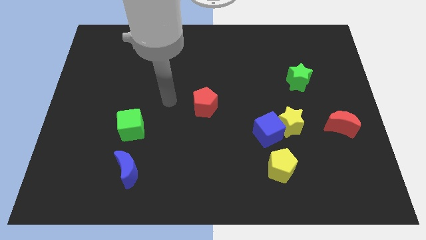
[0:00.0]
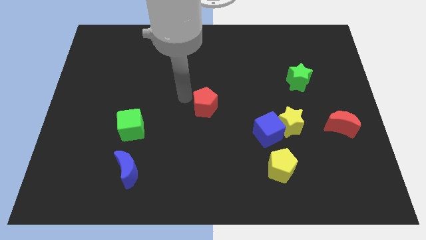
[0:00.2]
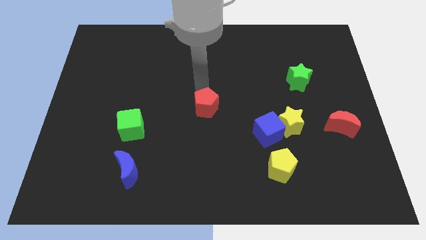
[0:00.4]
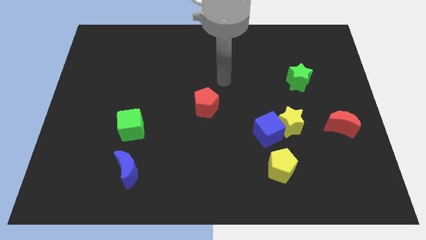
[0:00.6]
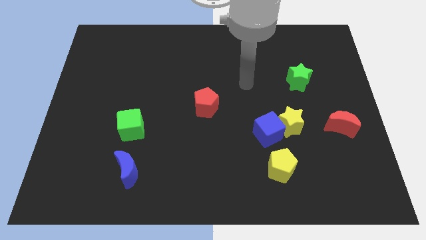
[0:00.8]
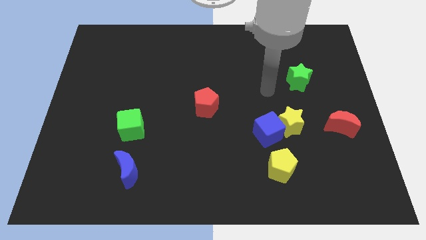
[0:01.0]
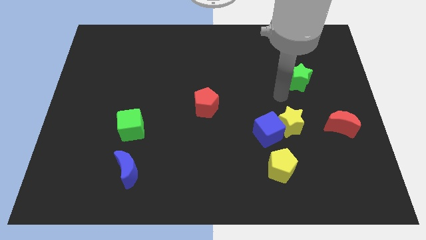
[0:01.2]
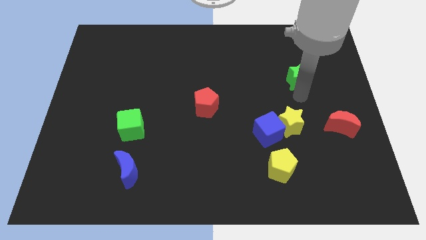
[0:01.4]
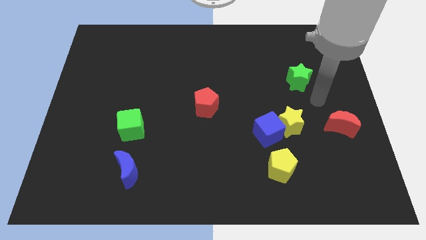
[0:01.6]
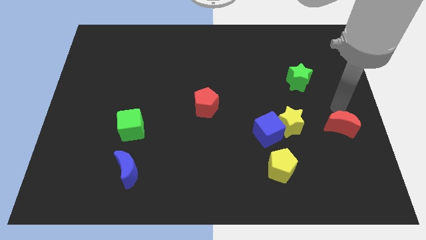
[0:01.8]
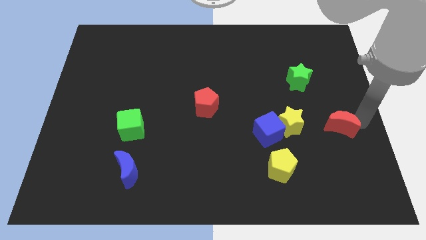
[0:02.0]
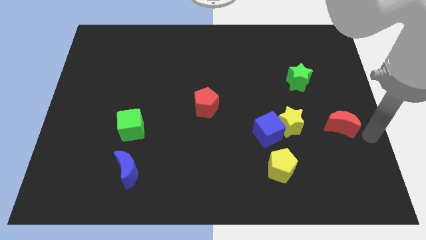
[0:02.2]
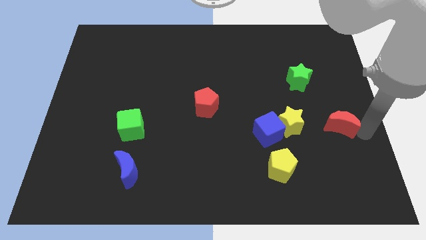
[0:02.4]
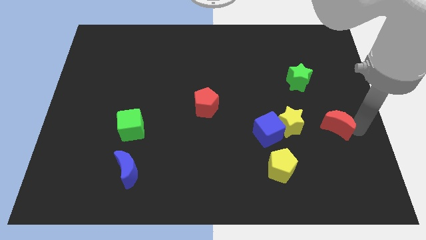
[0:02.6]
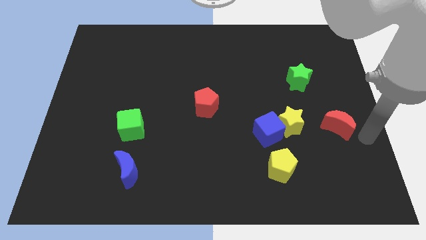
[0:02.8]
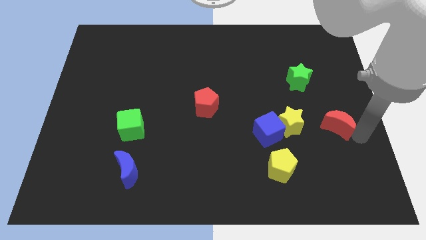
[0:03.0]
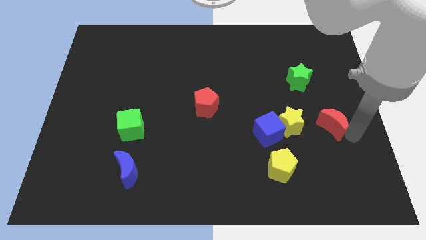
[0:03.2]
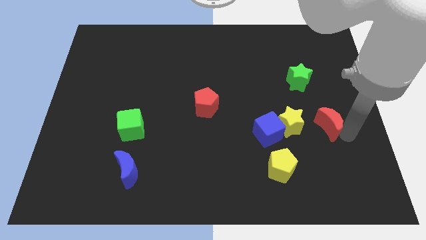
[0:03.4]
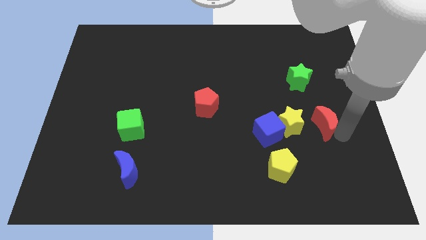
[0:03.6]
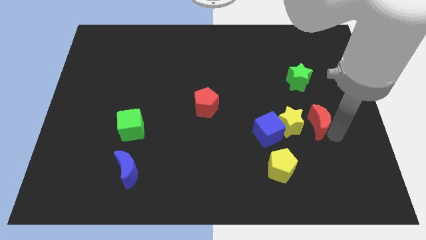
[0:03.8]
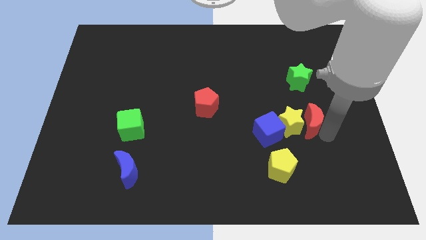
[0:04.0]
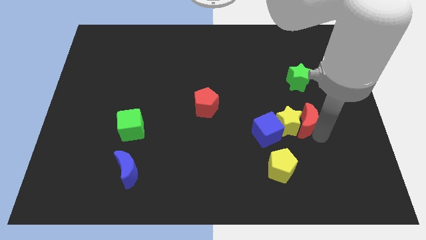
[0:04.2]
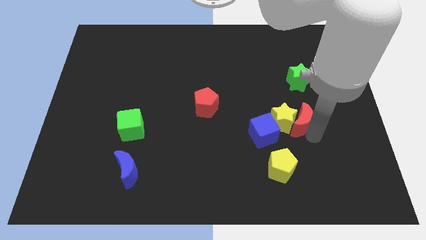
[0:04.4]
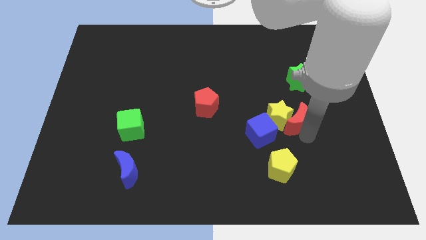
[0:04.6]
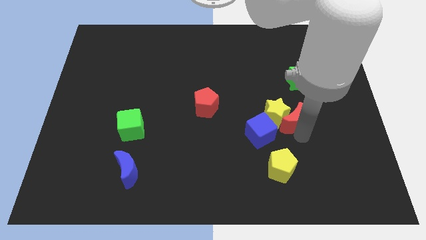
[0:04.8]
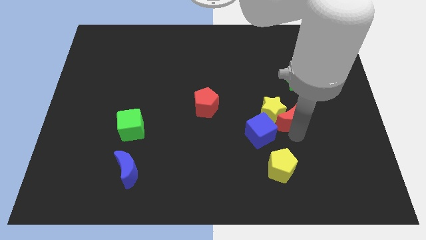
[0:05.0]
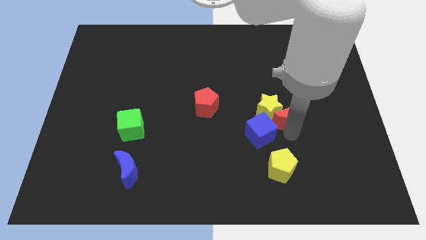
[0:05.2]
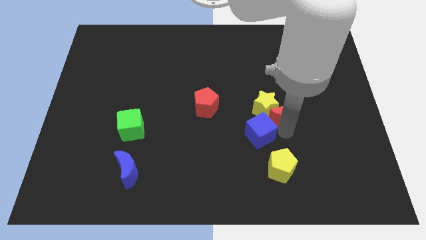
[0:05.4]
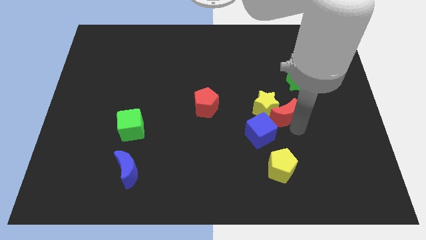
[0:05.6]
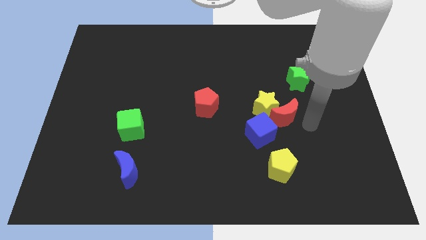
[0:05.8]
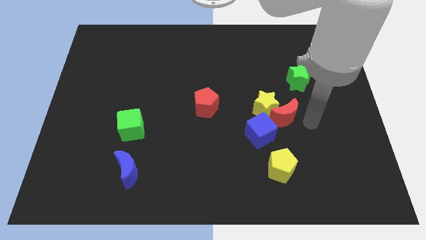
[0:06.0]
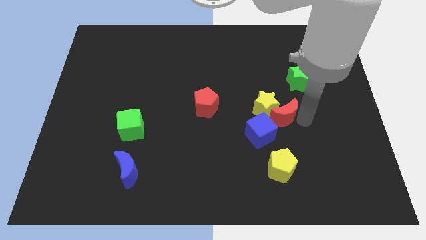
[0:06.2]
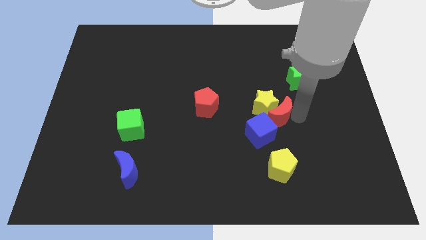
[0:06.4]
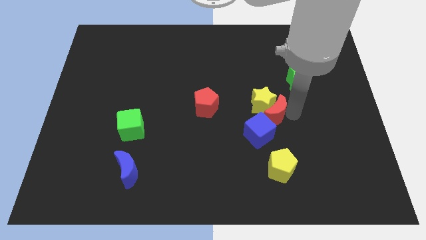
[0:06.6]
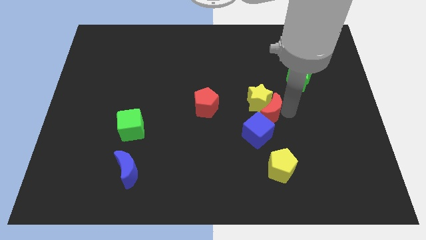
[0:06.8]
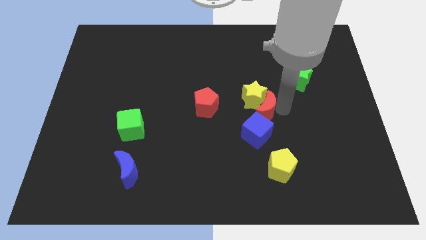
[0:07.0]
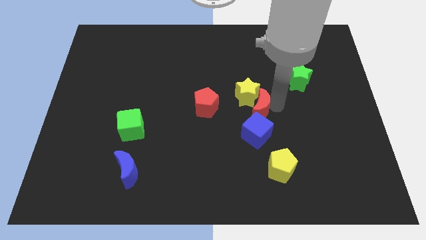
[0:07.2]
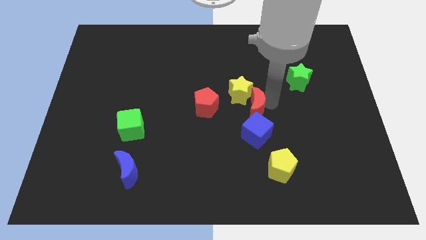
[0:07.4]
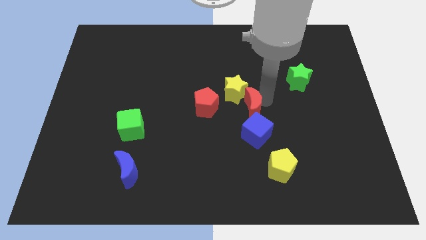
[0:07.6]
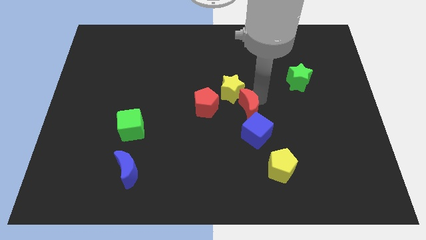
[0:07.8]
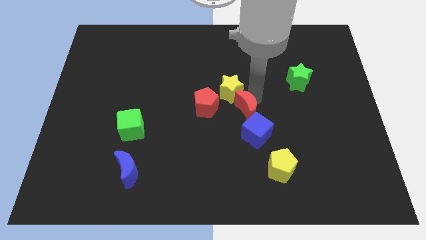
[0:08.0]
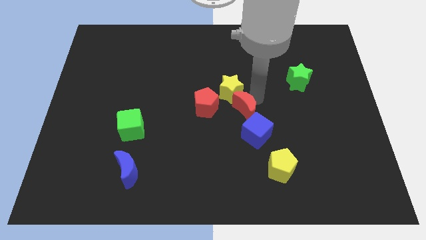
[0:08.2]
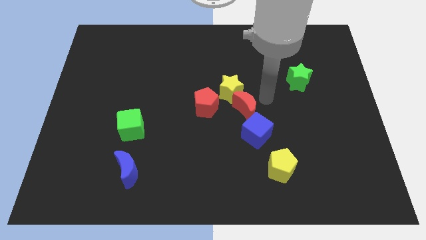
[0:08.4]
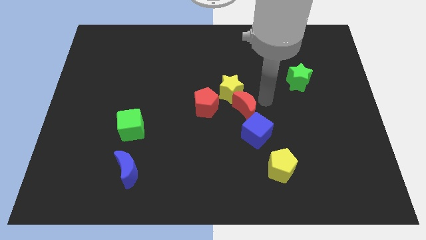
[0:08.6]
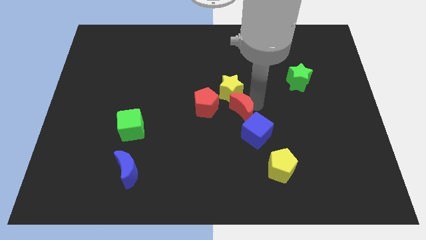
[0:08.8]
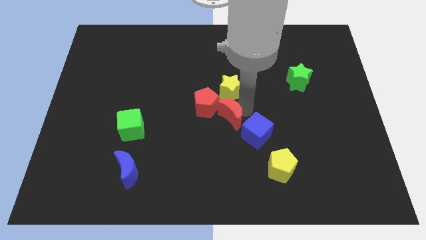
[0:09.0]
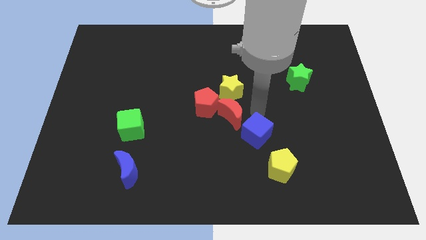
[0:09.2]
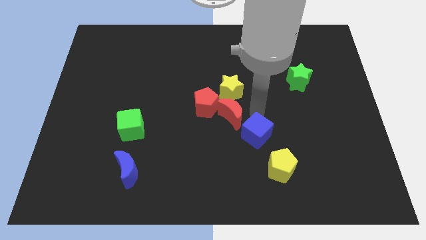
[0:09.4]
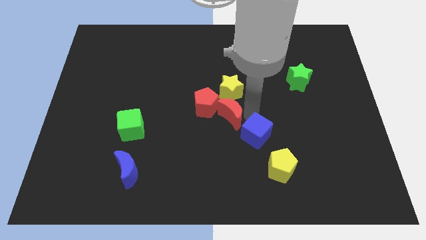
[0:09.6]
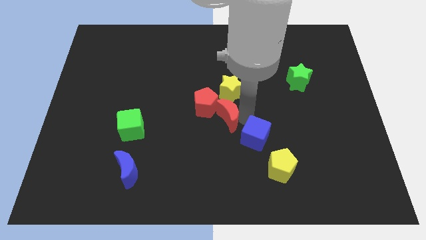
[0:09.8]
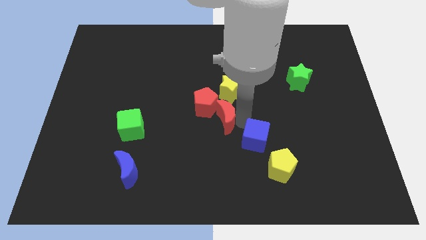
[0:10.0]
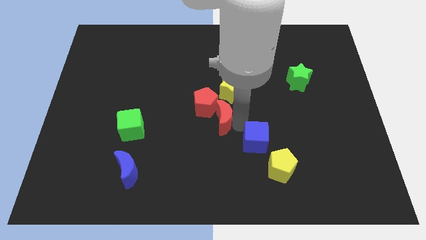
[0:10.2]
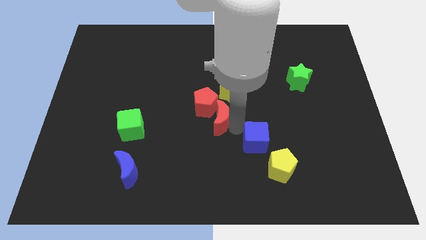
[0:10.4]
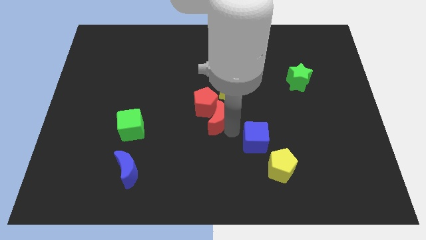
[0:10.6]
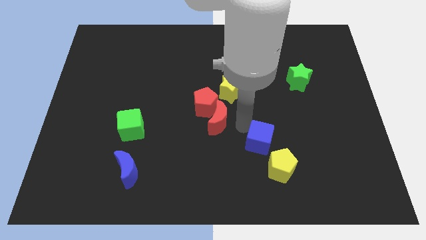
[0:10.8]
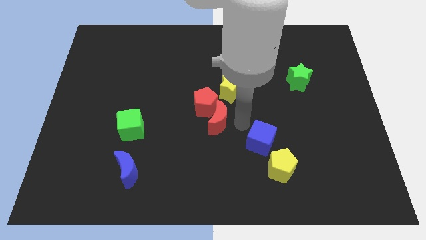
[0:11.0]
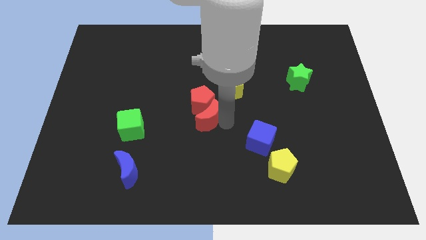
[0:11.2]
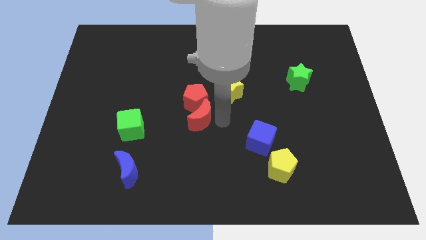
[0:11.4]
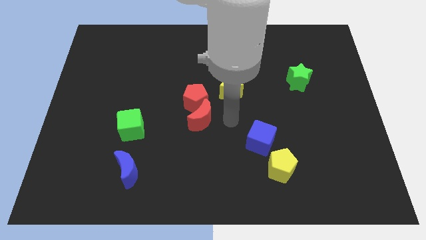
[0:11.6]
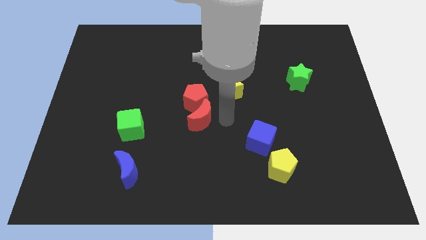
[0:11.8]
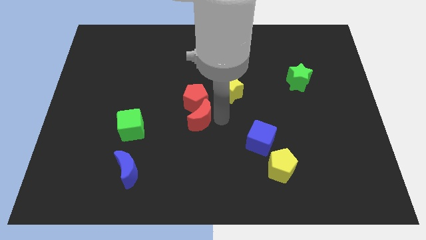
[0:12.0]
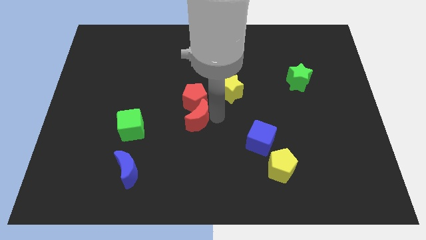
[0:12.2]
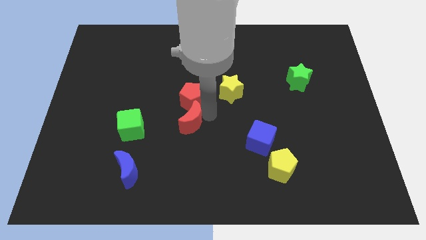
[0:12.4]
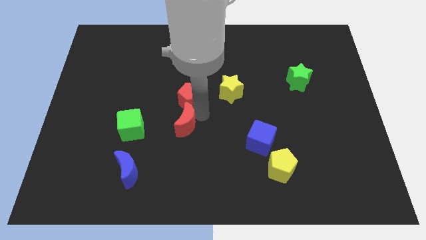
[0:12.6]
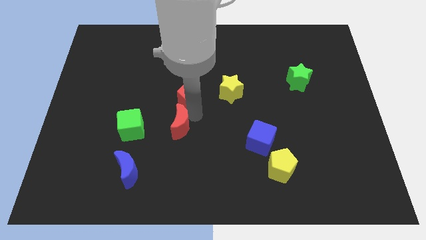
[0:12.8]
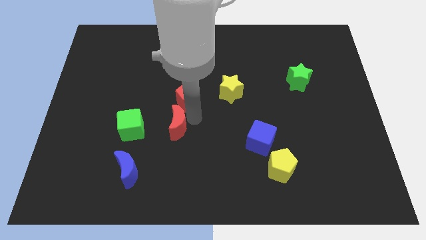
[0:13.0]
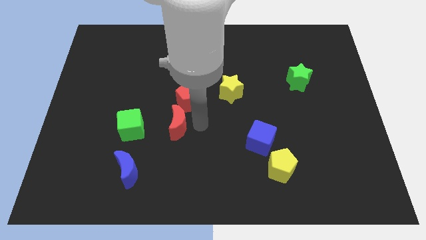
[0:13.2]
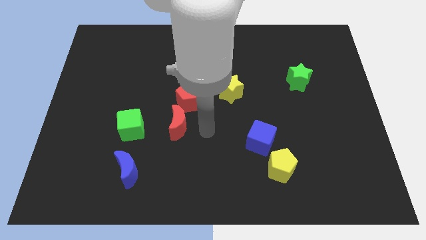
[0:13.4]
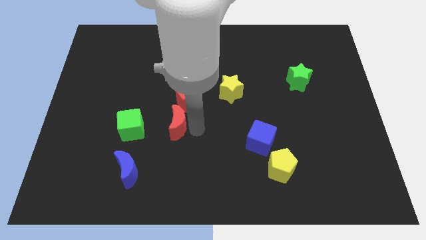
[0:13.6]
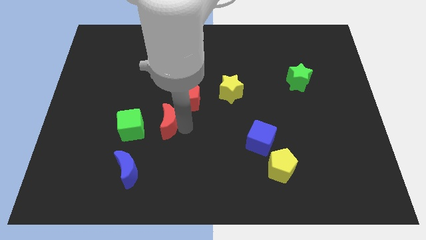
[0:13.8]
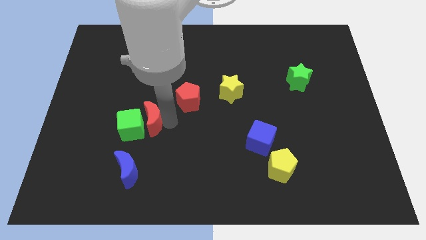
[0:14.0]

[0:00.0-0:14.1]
push the red moon to the green cube

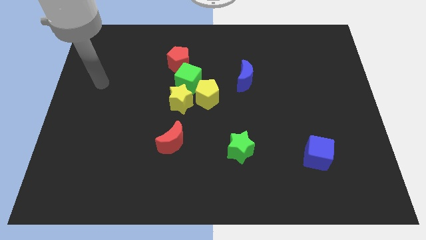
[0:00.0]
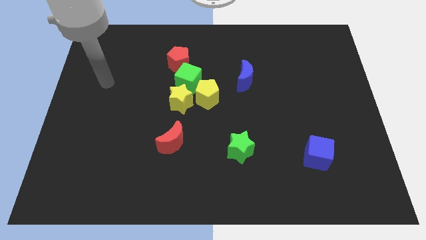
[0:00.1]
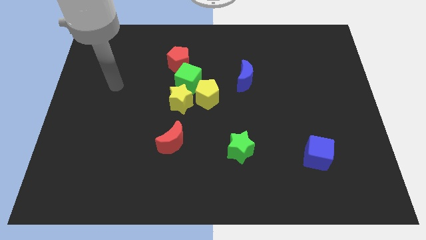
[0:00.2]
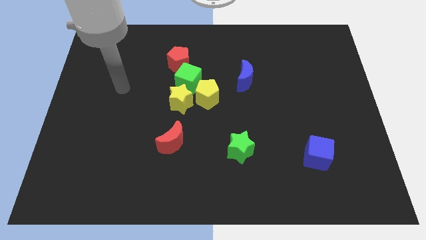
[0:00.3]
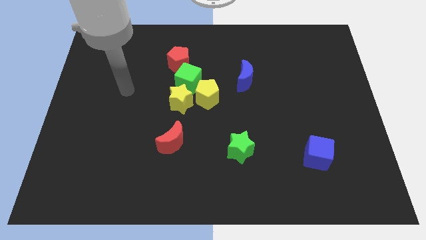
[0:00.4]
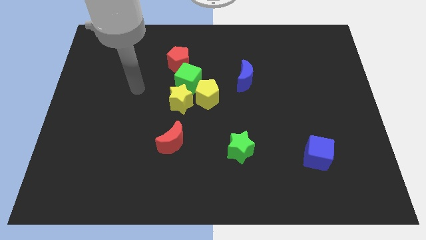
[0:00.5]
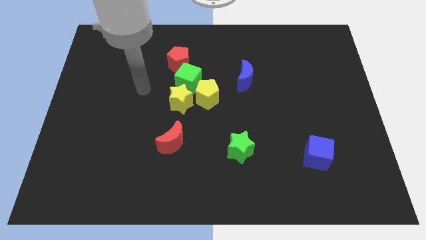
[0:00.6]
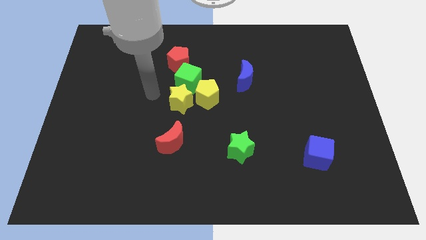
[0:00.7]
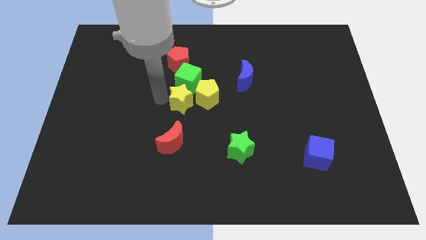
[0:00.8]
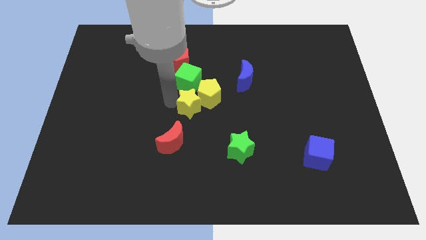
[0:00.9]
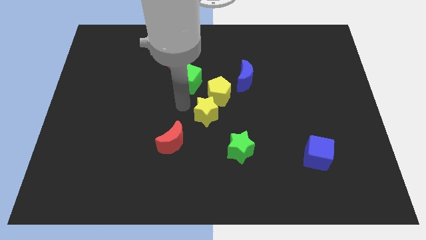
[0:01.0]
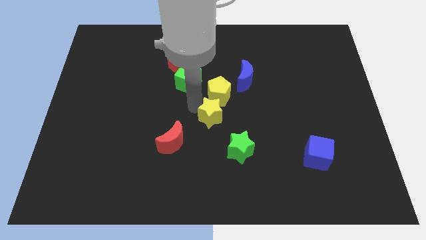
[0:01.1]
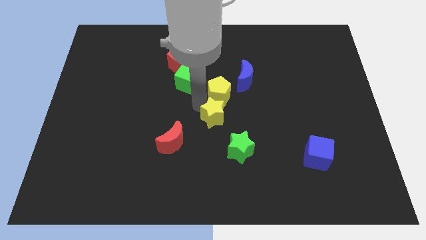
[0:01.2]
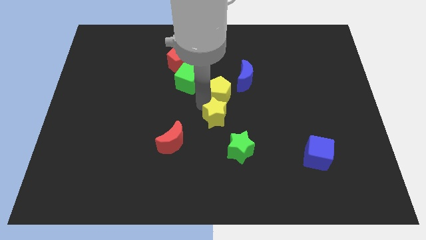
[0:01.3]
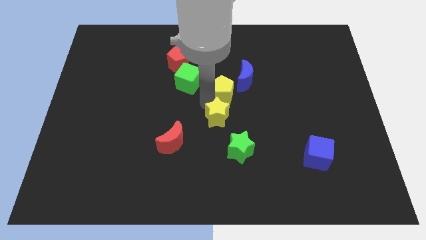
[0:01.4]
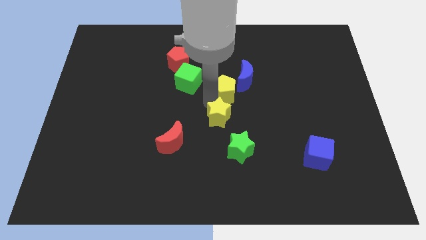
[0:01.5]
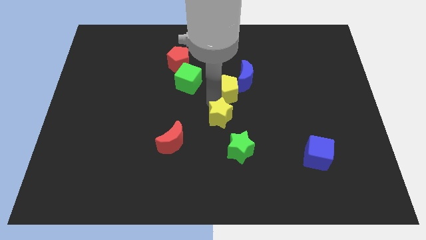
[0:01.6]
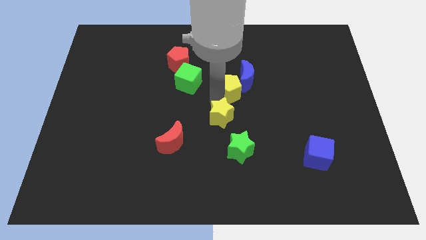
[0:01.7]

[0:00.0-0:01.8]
push the yellow pentagon close to the blue moon
